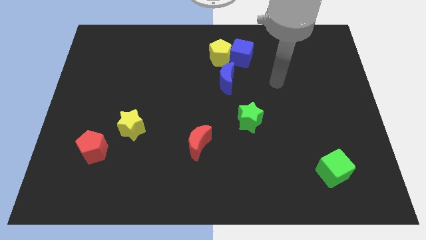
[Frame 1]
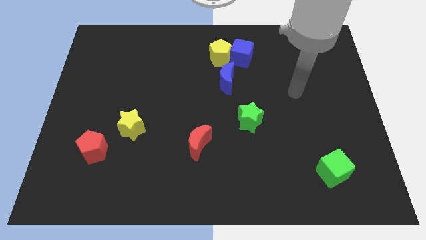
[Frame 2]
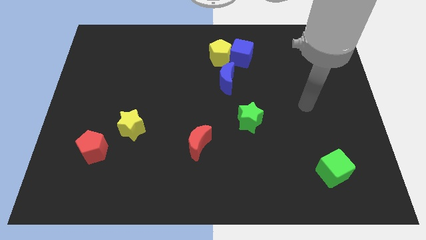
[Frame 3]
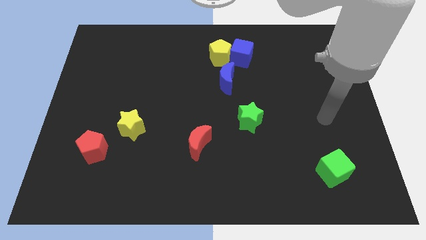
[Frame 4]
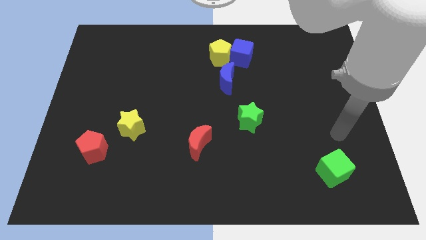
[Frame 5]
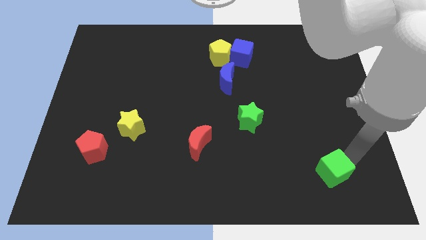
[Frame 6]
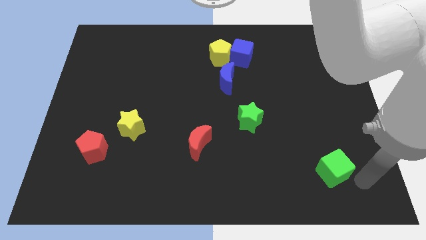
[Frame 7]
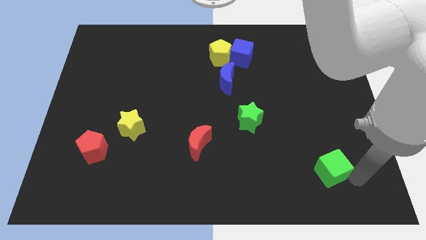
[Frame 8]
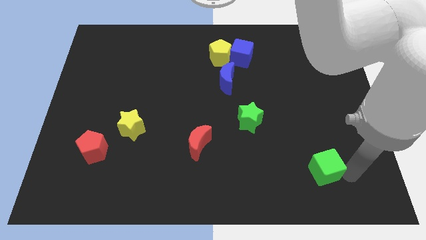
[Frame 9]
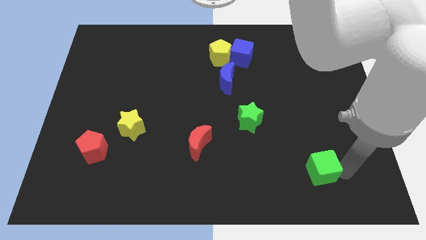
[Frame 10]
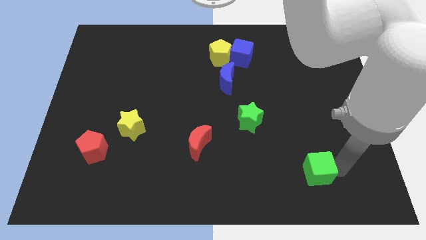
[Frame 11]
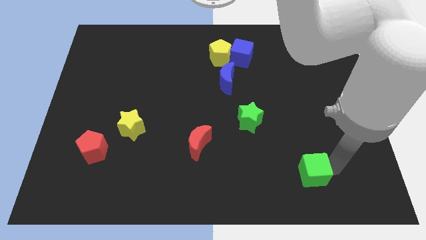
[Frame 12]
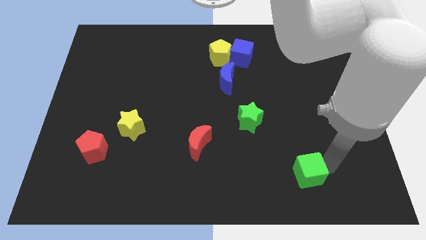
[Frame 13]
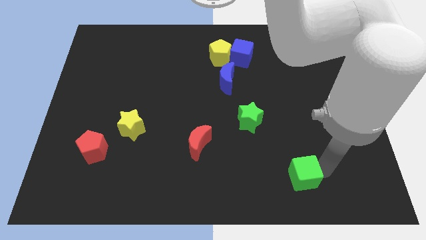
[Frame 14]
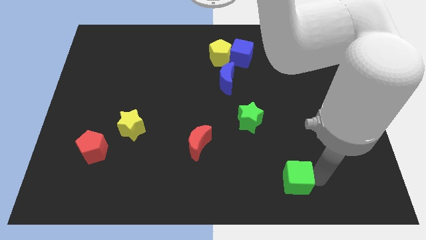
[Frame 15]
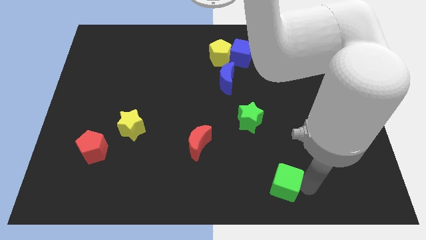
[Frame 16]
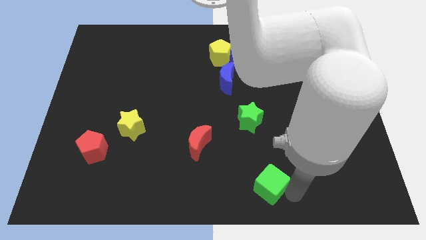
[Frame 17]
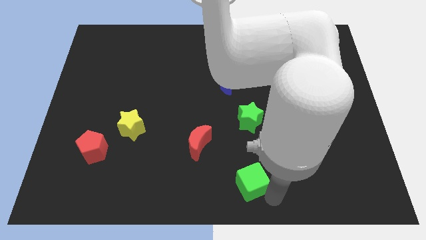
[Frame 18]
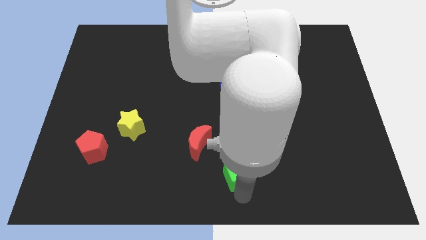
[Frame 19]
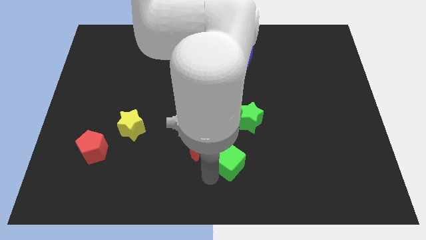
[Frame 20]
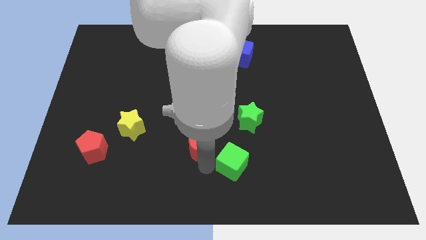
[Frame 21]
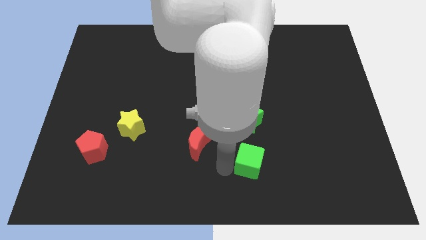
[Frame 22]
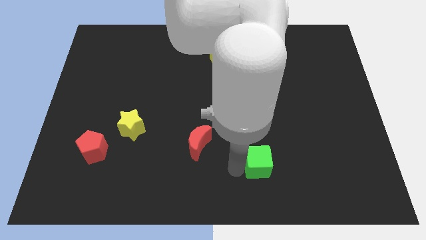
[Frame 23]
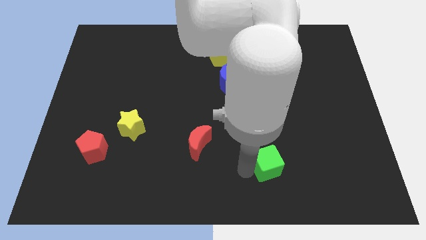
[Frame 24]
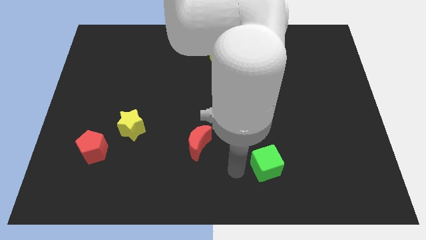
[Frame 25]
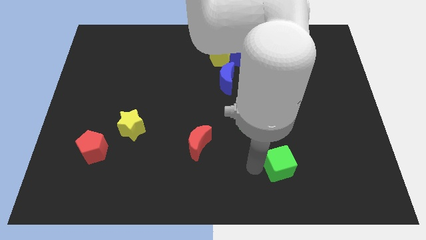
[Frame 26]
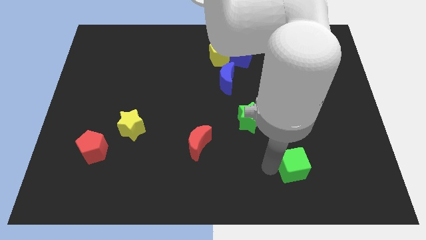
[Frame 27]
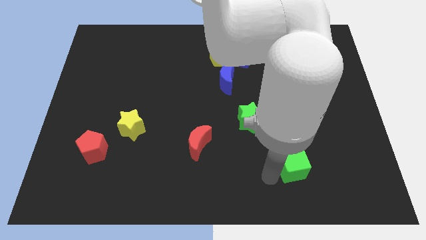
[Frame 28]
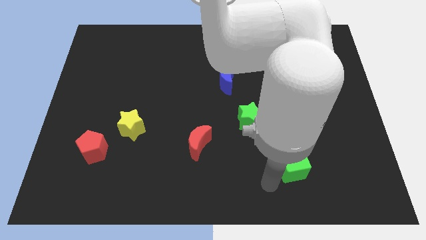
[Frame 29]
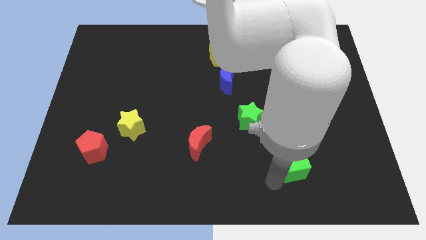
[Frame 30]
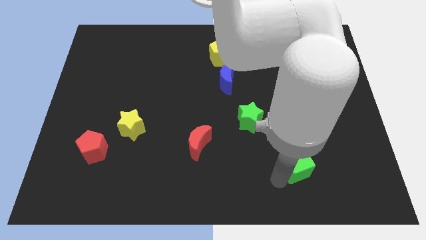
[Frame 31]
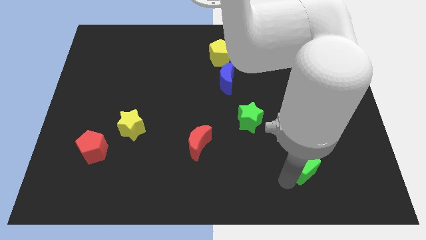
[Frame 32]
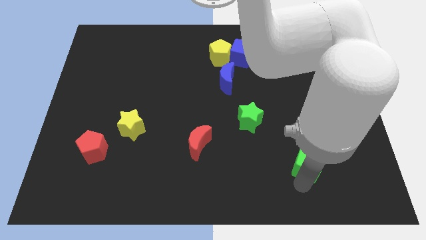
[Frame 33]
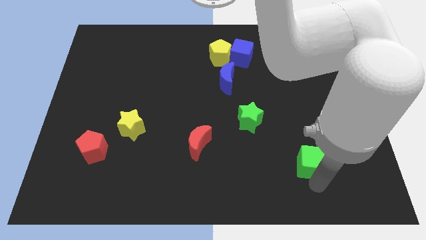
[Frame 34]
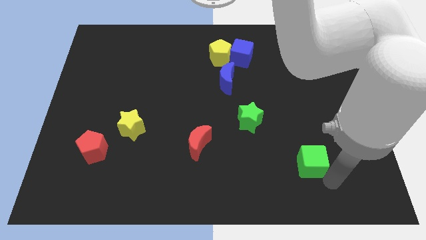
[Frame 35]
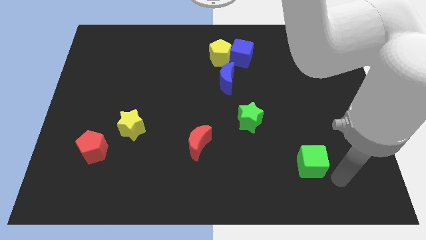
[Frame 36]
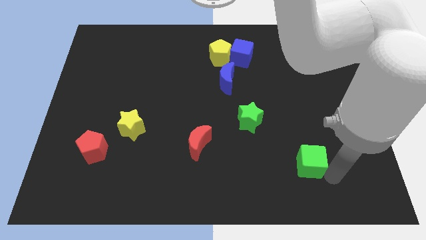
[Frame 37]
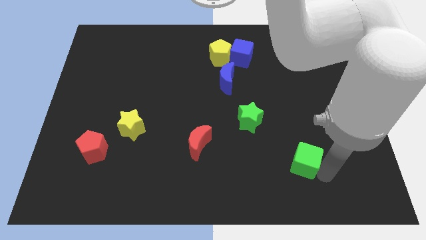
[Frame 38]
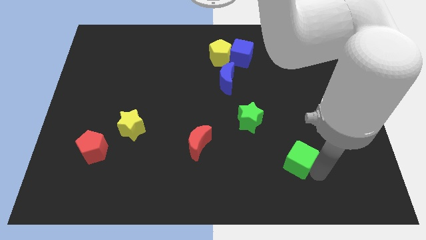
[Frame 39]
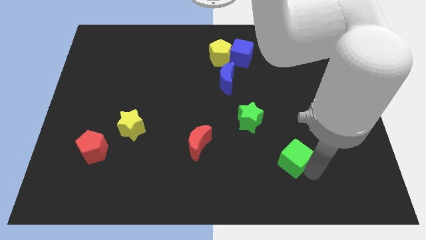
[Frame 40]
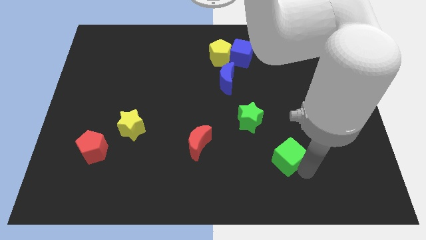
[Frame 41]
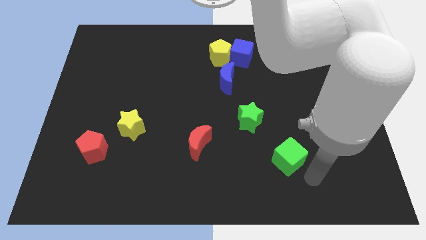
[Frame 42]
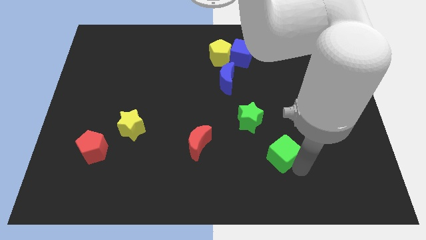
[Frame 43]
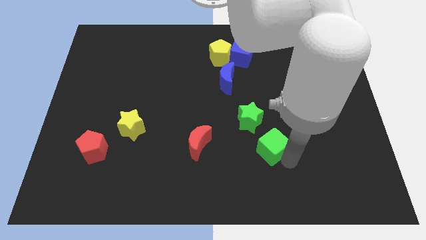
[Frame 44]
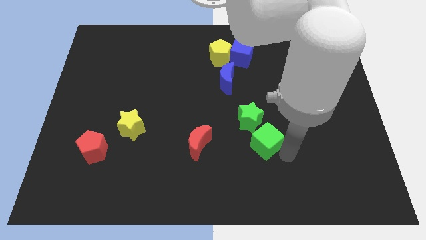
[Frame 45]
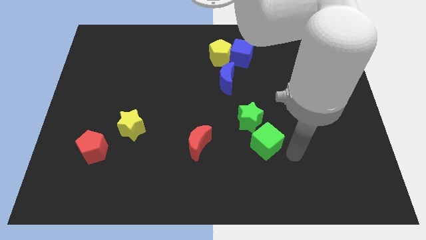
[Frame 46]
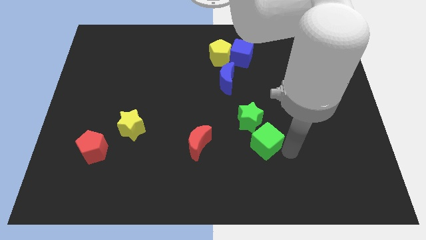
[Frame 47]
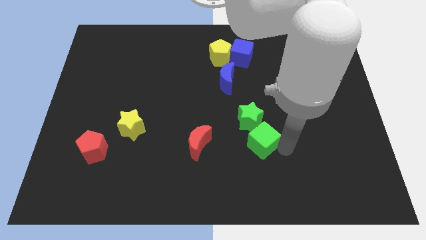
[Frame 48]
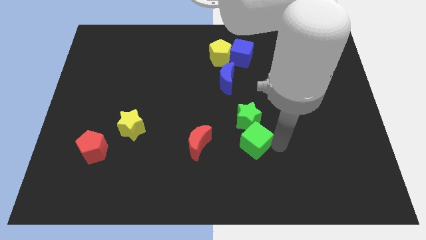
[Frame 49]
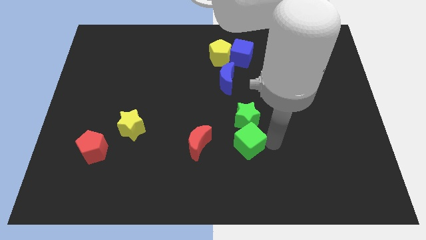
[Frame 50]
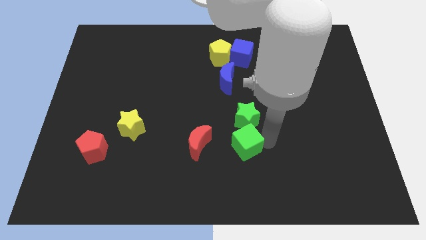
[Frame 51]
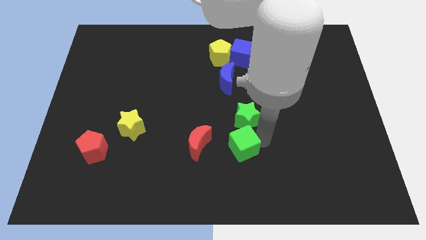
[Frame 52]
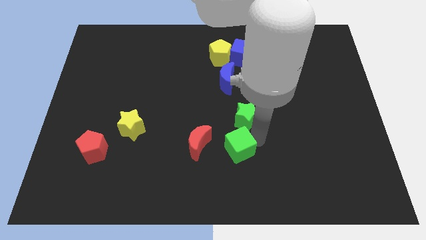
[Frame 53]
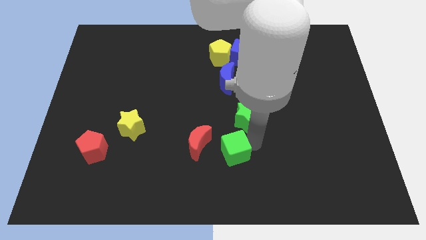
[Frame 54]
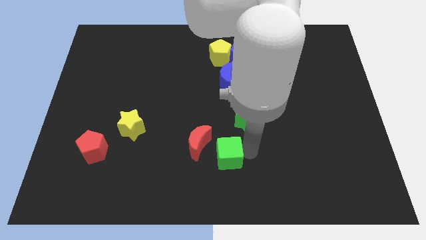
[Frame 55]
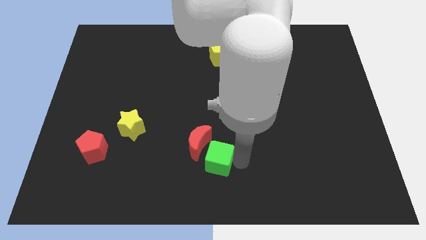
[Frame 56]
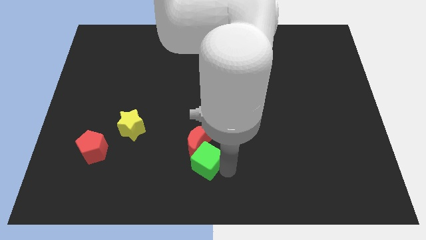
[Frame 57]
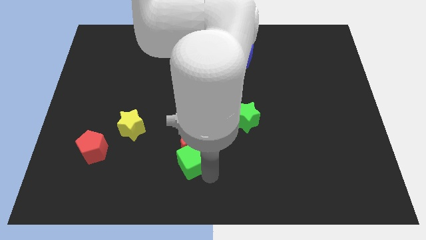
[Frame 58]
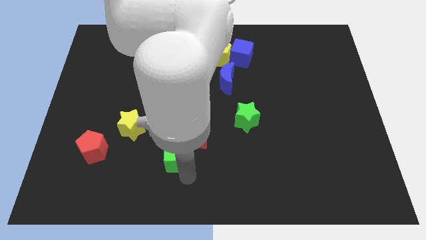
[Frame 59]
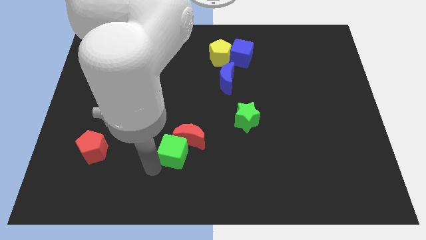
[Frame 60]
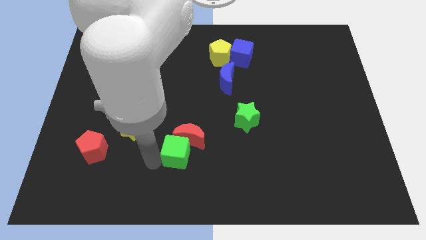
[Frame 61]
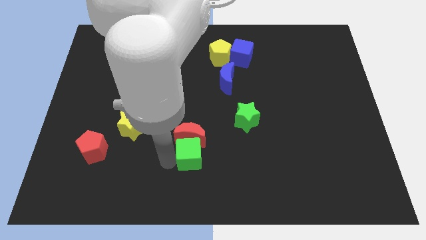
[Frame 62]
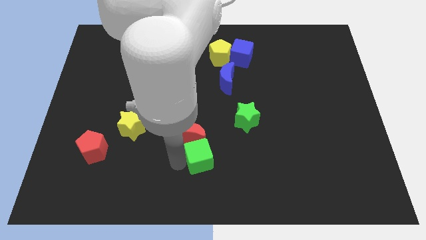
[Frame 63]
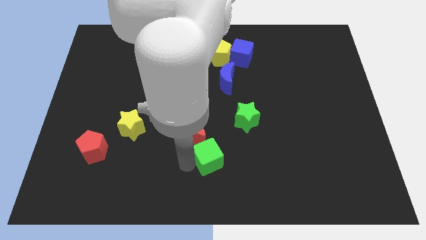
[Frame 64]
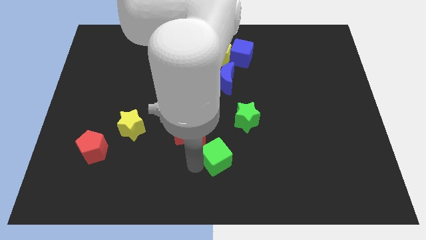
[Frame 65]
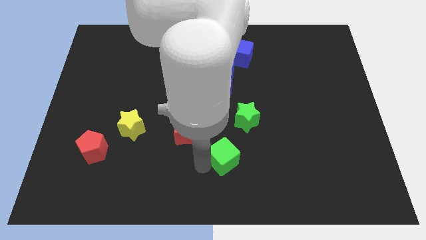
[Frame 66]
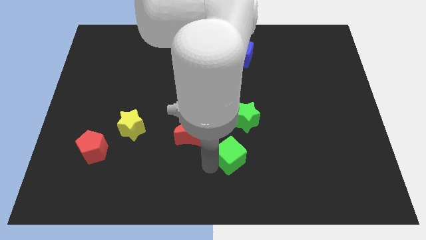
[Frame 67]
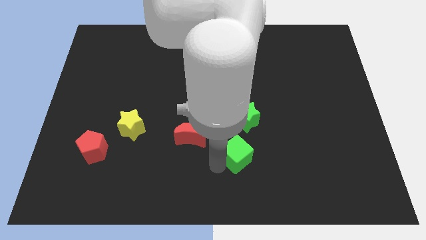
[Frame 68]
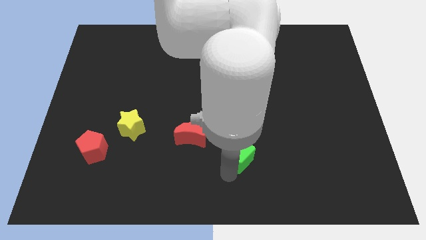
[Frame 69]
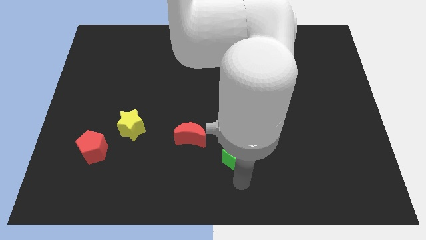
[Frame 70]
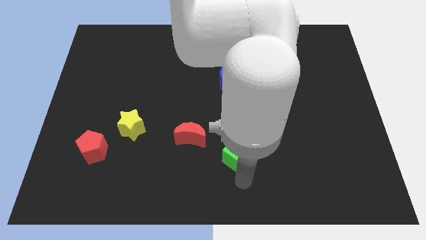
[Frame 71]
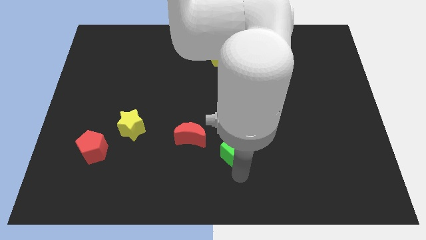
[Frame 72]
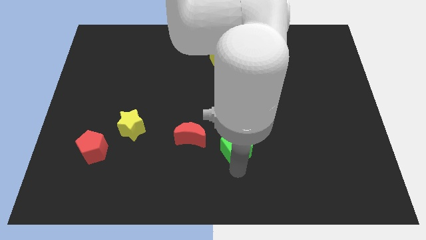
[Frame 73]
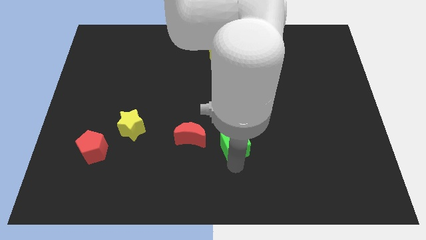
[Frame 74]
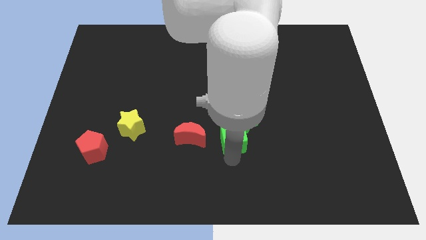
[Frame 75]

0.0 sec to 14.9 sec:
move the green cube to the middle of the board
